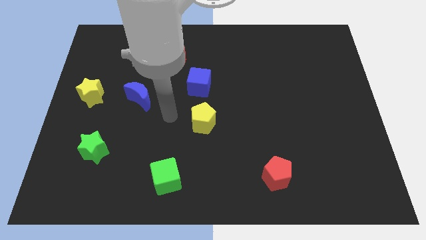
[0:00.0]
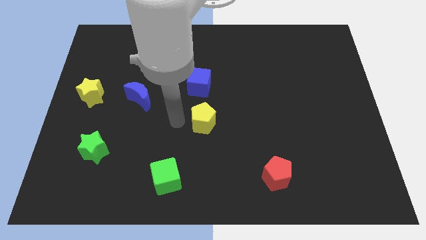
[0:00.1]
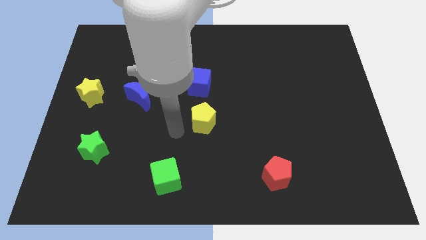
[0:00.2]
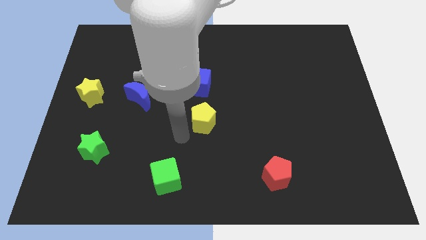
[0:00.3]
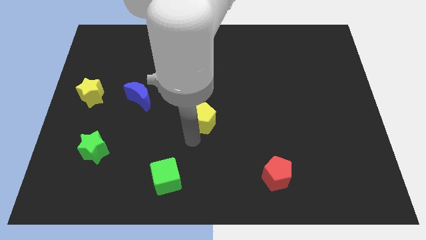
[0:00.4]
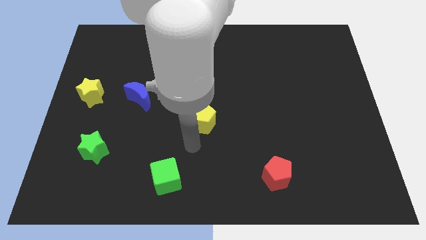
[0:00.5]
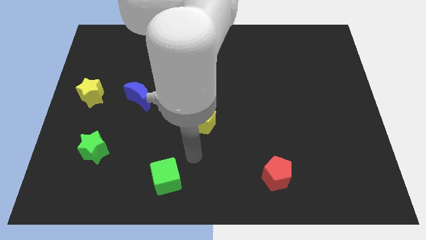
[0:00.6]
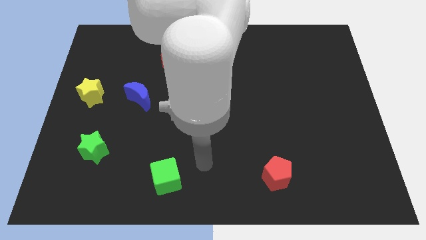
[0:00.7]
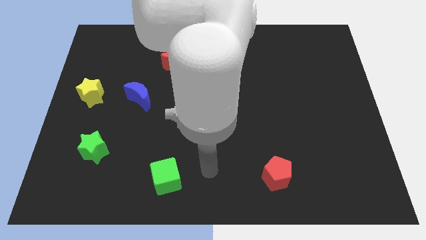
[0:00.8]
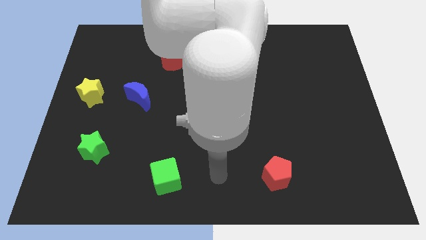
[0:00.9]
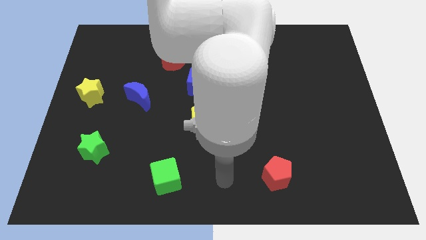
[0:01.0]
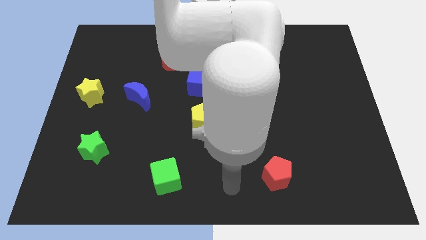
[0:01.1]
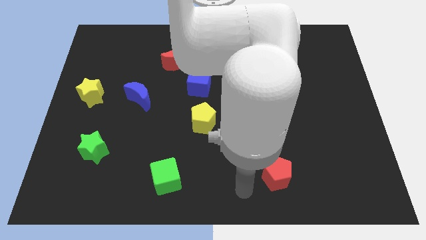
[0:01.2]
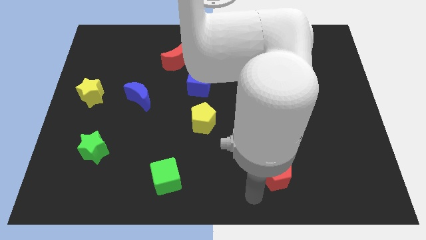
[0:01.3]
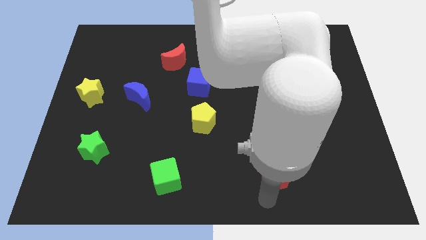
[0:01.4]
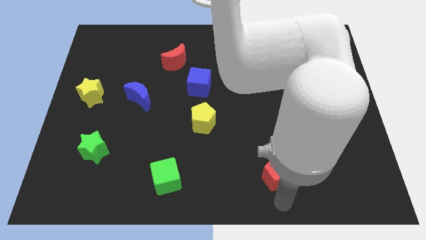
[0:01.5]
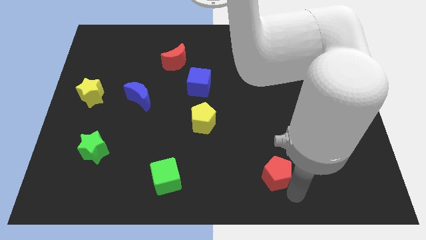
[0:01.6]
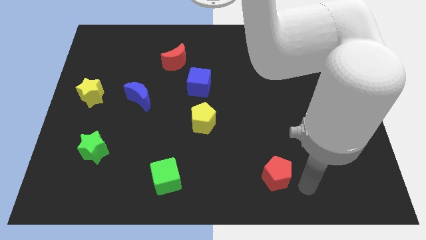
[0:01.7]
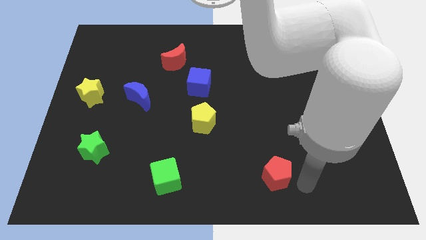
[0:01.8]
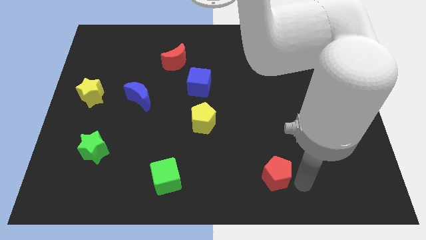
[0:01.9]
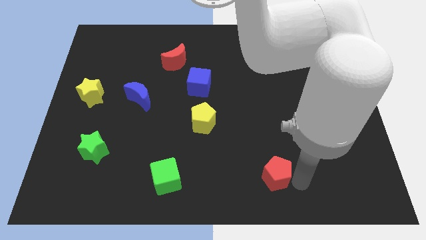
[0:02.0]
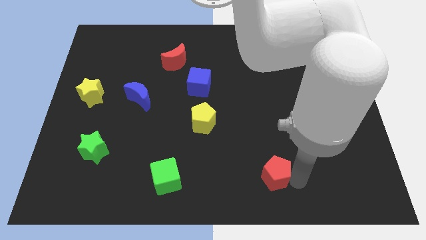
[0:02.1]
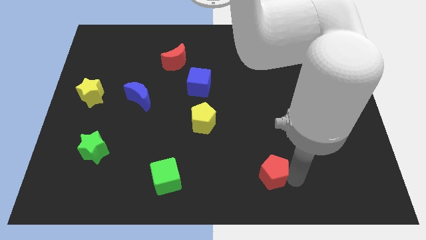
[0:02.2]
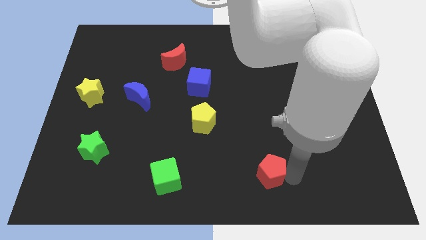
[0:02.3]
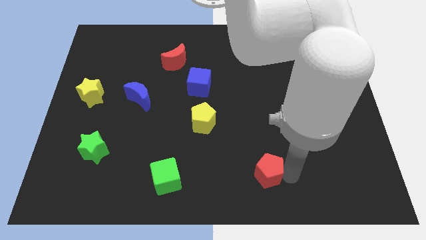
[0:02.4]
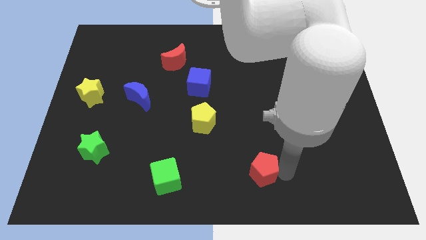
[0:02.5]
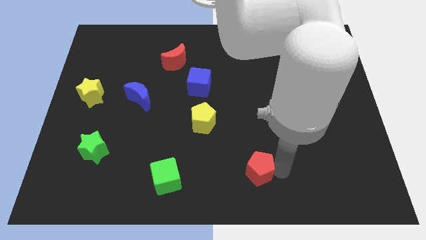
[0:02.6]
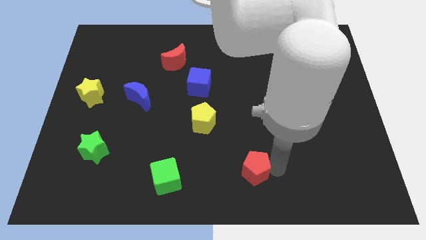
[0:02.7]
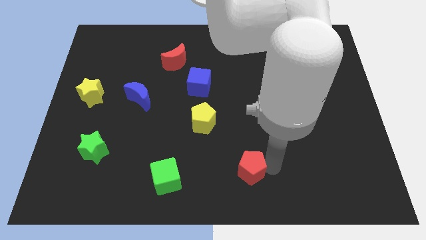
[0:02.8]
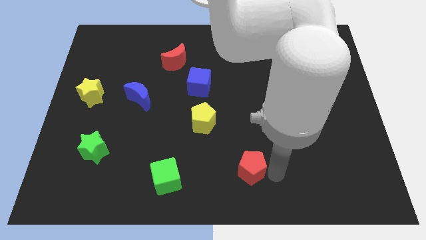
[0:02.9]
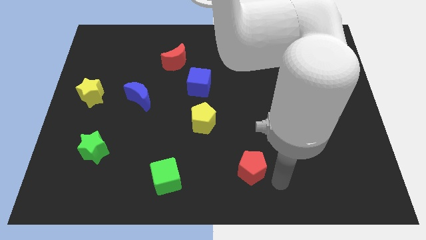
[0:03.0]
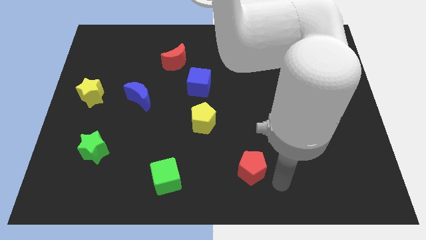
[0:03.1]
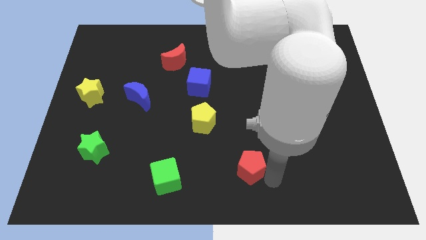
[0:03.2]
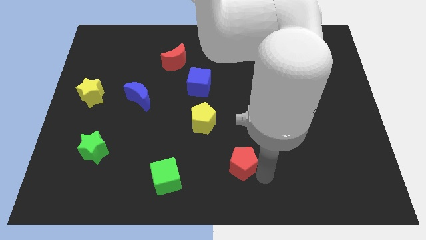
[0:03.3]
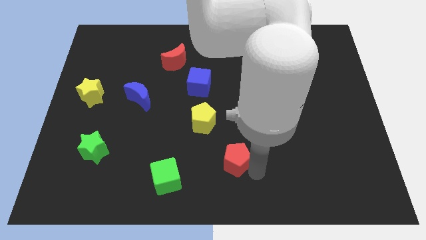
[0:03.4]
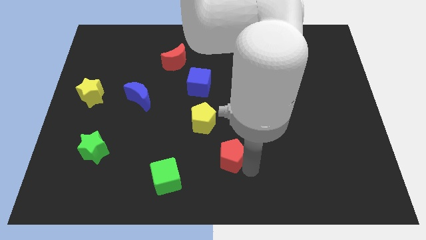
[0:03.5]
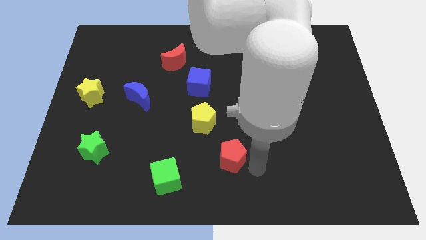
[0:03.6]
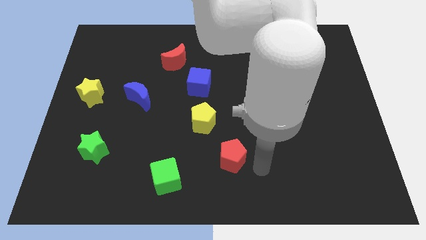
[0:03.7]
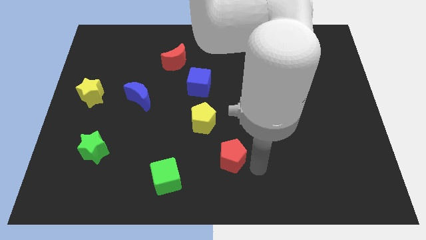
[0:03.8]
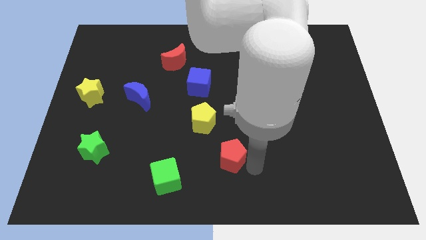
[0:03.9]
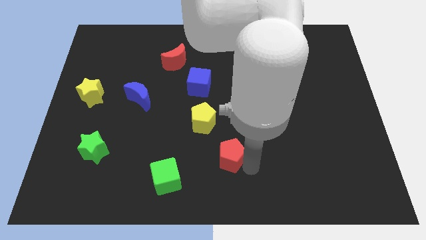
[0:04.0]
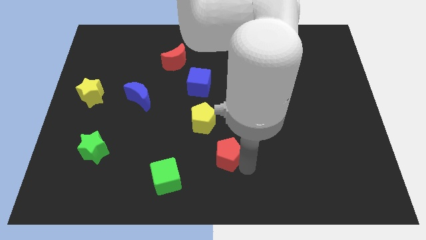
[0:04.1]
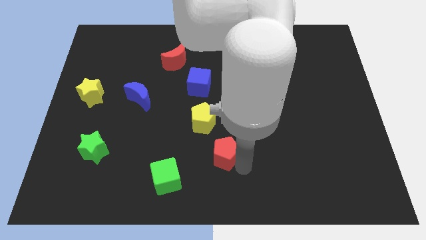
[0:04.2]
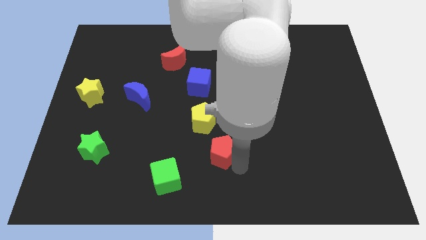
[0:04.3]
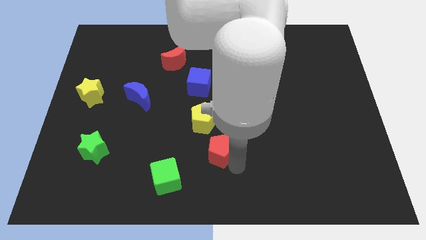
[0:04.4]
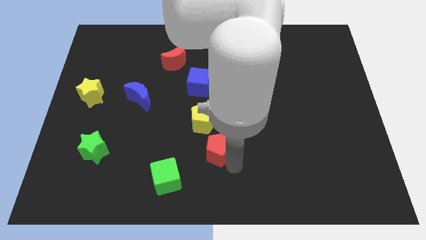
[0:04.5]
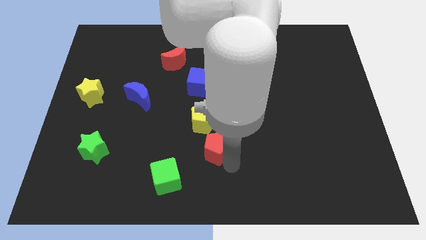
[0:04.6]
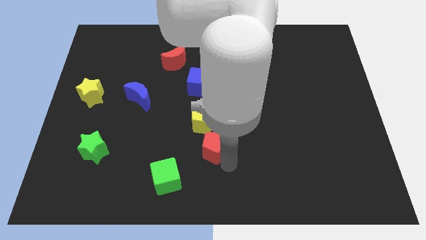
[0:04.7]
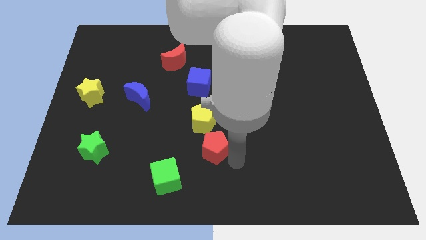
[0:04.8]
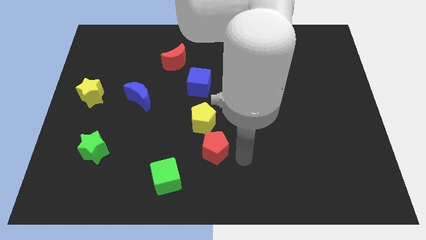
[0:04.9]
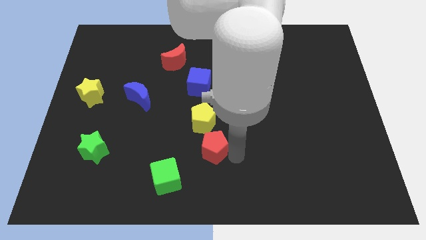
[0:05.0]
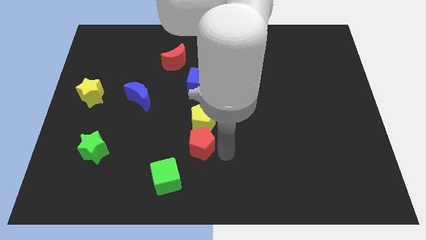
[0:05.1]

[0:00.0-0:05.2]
put the red pentagon to the bottom left side of the yellow pentagon

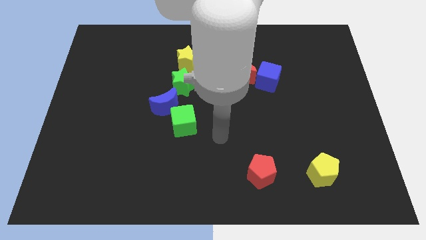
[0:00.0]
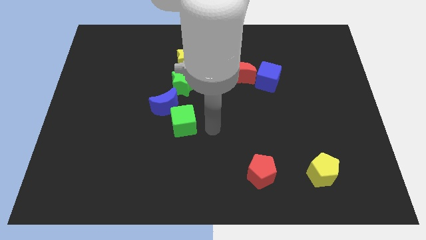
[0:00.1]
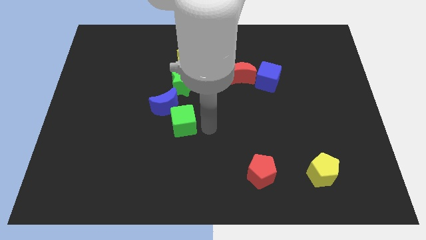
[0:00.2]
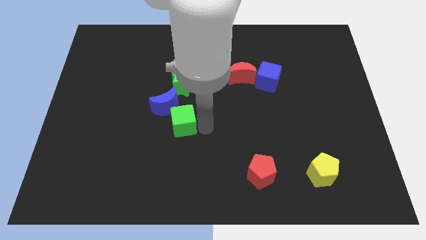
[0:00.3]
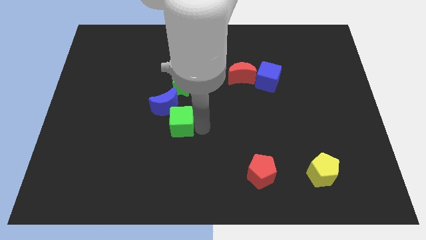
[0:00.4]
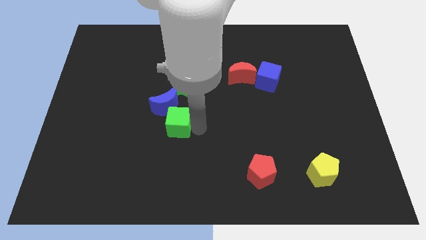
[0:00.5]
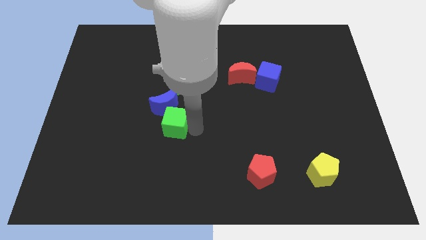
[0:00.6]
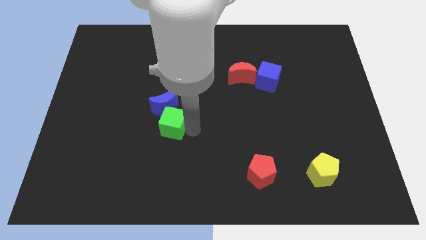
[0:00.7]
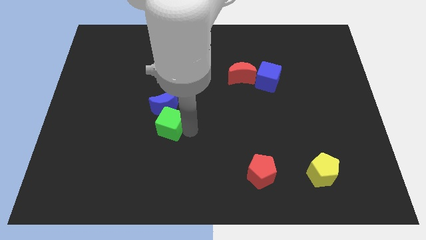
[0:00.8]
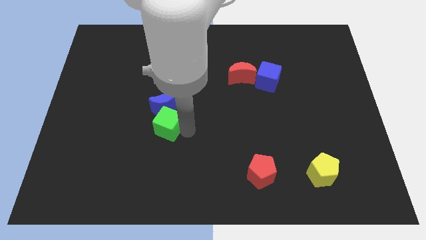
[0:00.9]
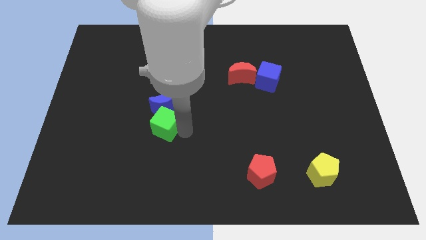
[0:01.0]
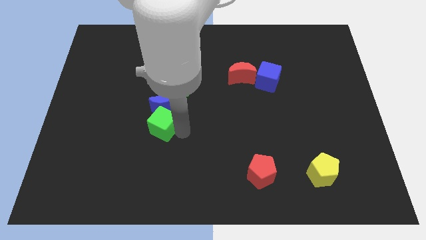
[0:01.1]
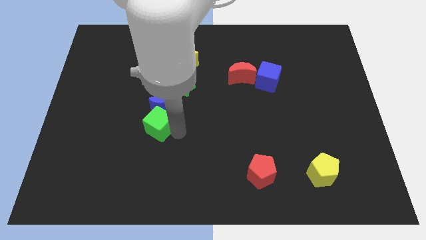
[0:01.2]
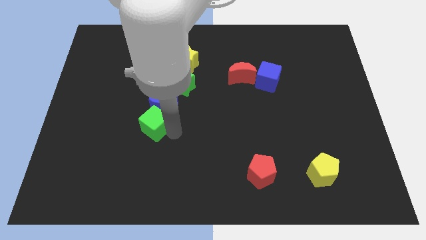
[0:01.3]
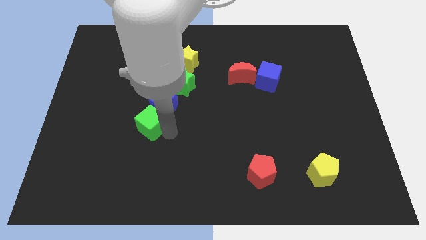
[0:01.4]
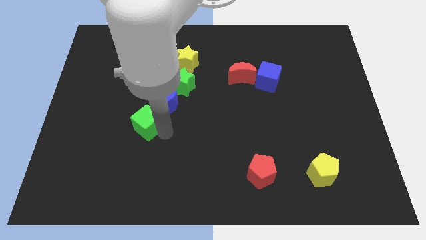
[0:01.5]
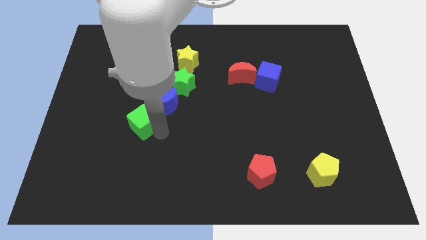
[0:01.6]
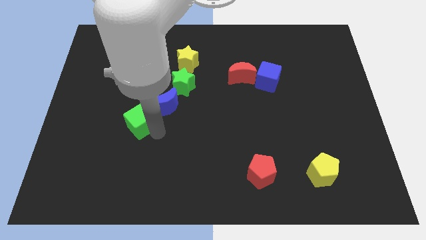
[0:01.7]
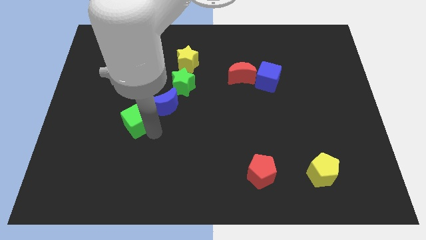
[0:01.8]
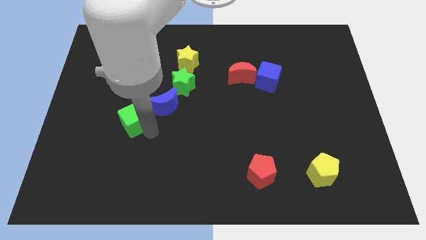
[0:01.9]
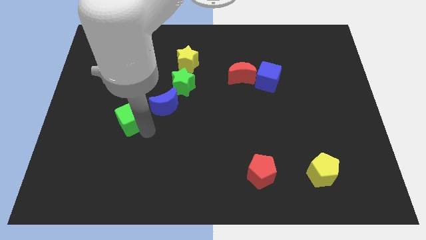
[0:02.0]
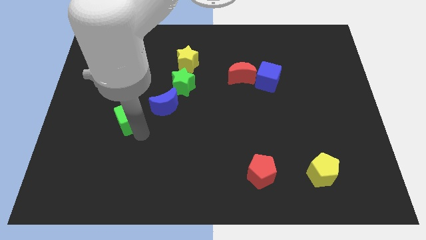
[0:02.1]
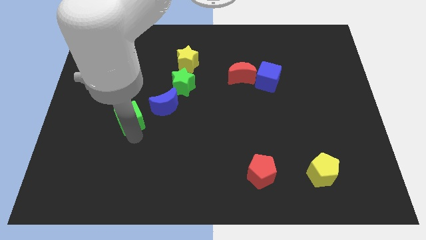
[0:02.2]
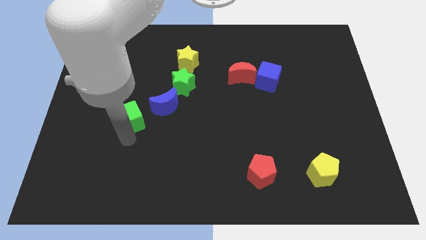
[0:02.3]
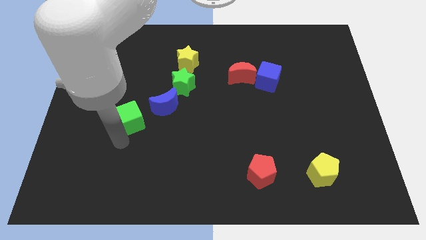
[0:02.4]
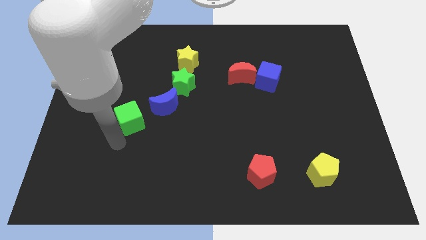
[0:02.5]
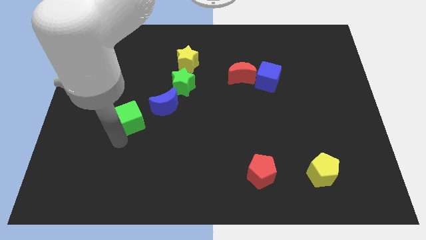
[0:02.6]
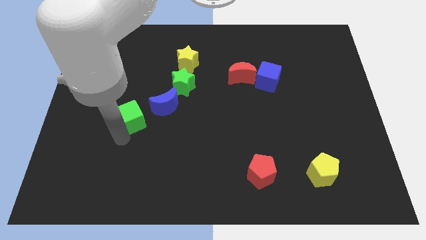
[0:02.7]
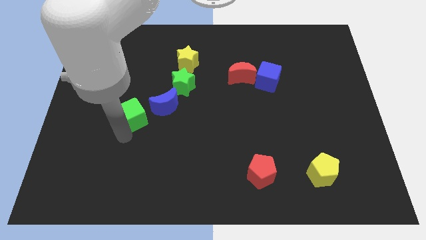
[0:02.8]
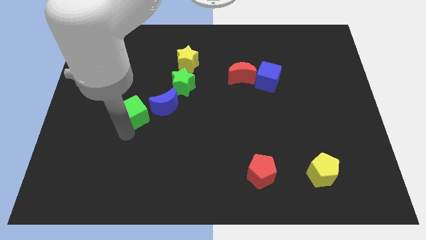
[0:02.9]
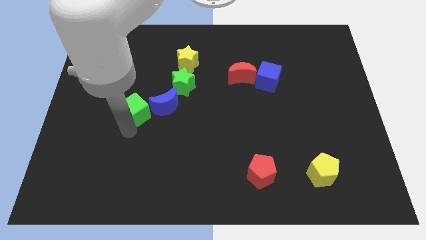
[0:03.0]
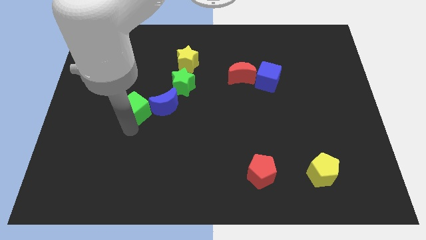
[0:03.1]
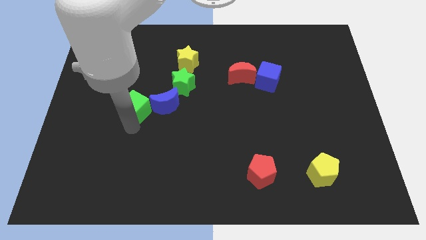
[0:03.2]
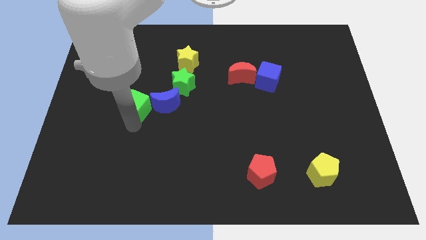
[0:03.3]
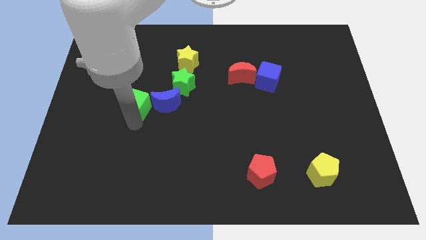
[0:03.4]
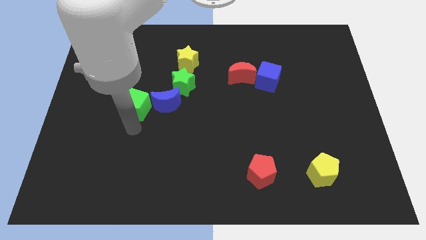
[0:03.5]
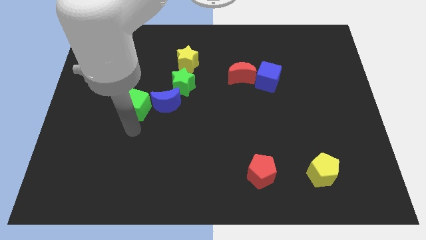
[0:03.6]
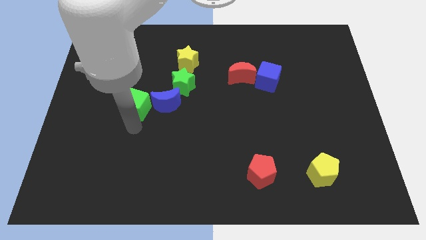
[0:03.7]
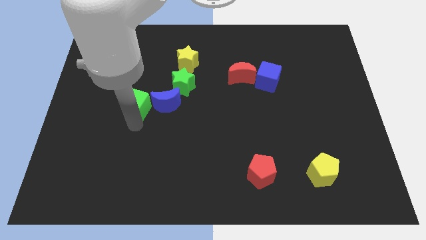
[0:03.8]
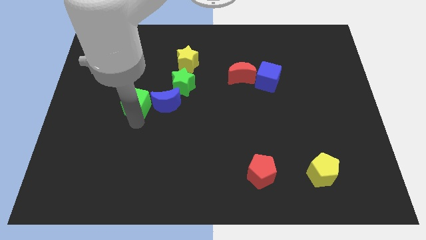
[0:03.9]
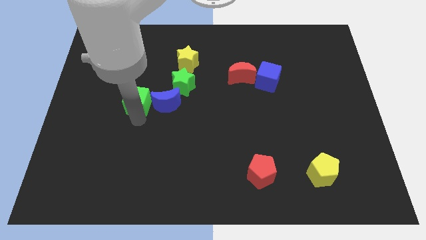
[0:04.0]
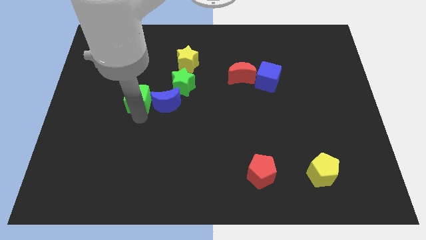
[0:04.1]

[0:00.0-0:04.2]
slide the green cube just left of the green star
